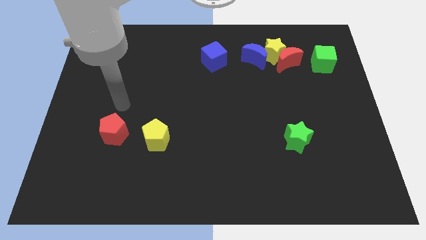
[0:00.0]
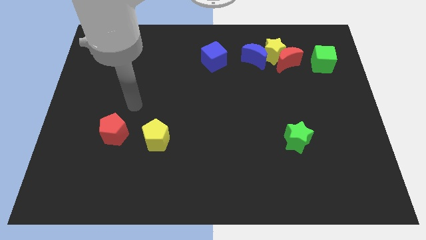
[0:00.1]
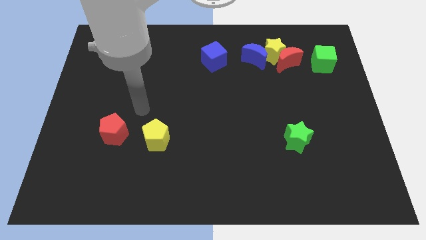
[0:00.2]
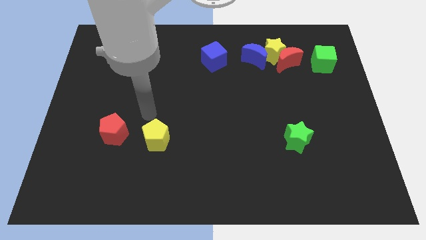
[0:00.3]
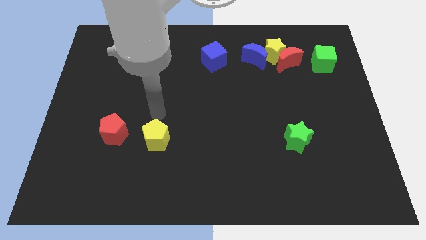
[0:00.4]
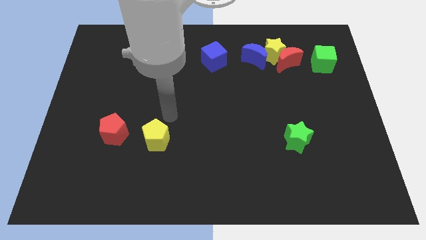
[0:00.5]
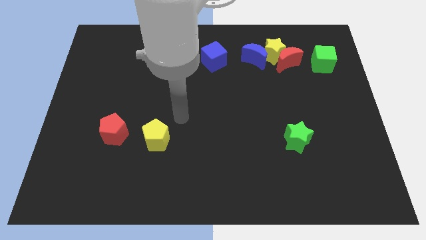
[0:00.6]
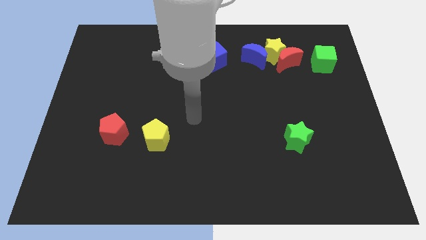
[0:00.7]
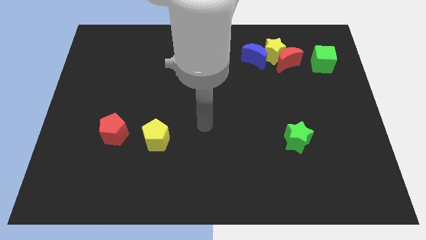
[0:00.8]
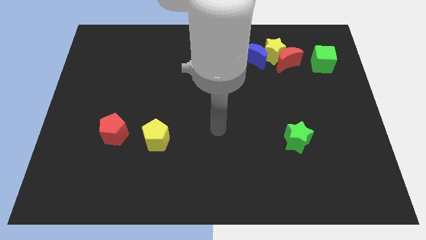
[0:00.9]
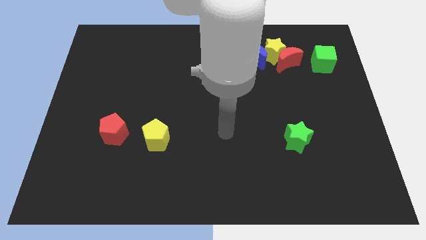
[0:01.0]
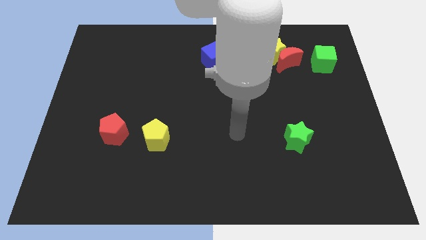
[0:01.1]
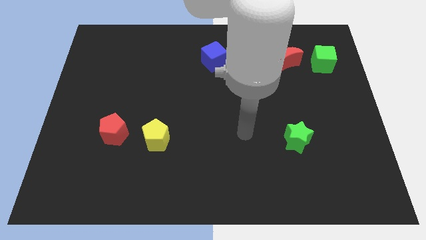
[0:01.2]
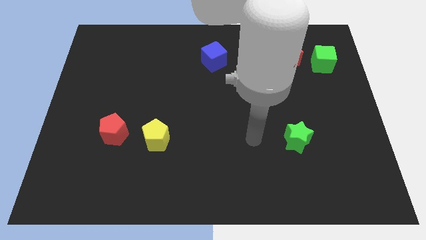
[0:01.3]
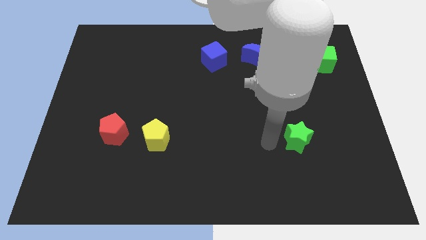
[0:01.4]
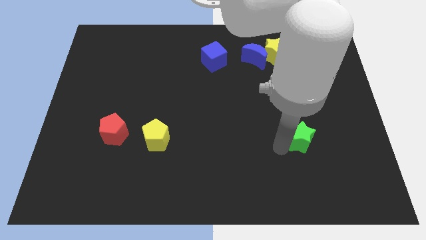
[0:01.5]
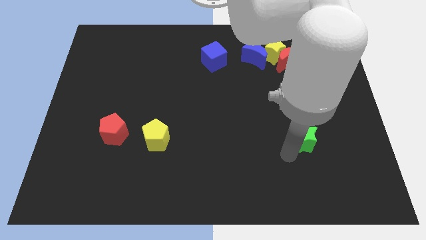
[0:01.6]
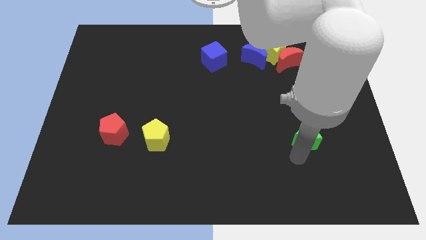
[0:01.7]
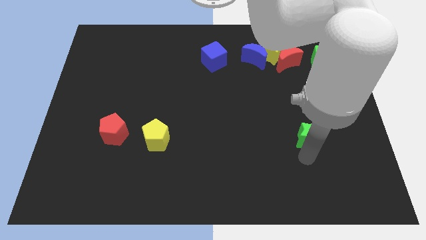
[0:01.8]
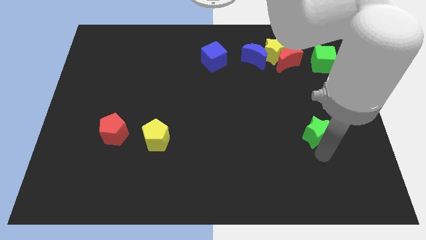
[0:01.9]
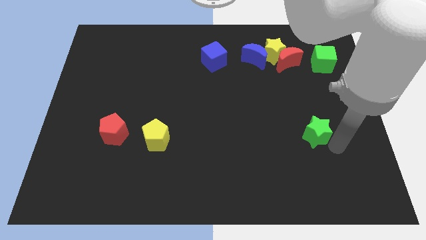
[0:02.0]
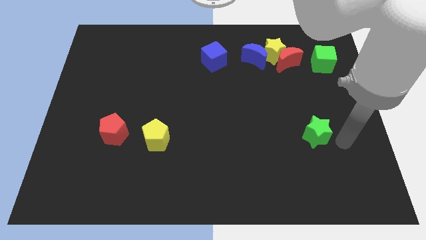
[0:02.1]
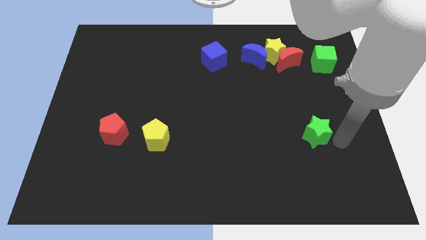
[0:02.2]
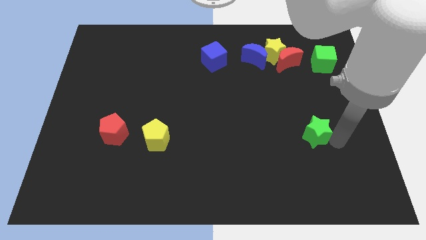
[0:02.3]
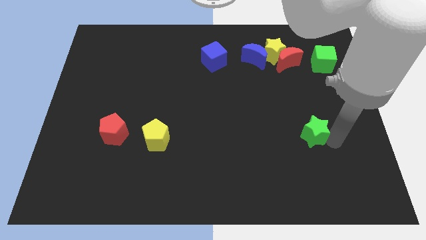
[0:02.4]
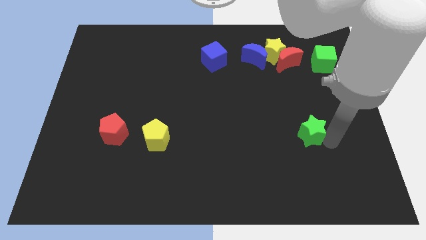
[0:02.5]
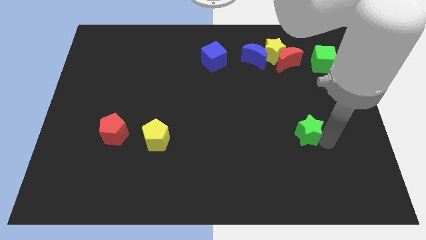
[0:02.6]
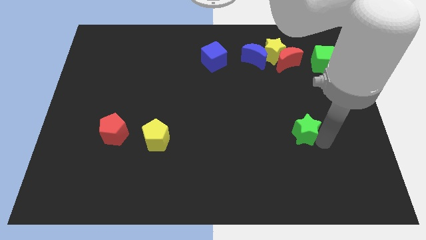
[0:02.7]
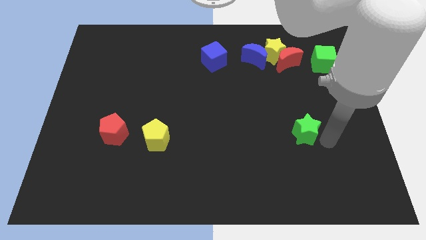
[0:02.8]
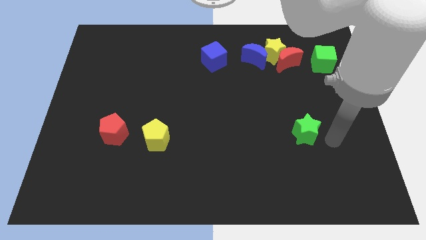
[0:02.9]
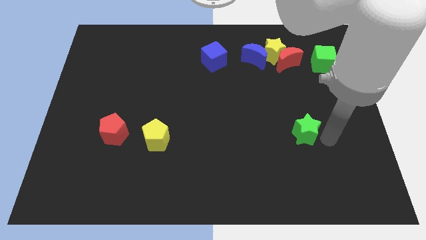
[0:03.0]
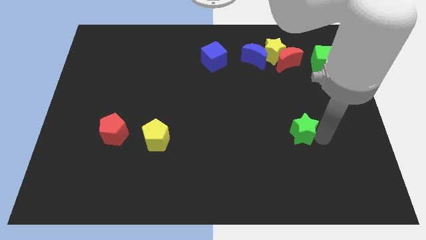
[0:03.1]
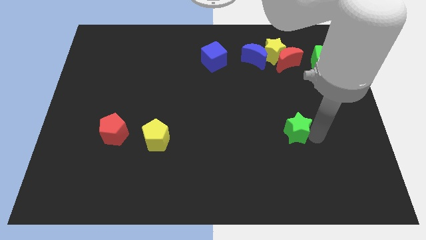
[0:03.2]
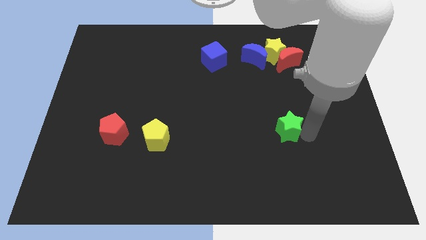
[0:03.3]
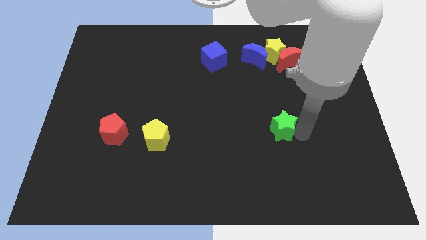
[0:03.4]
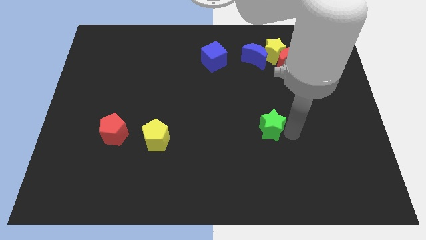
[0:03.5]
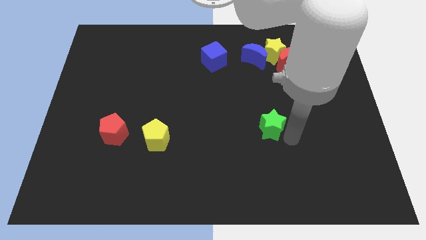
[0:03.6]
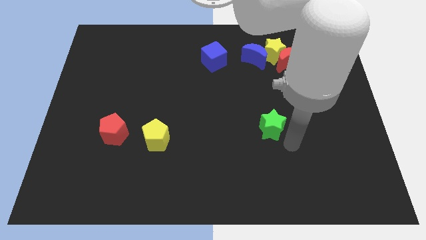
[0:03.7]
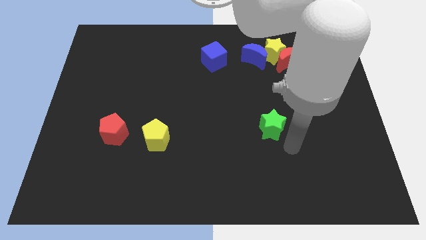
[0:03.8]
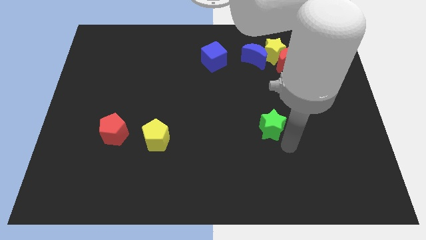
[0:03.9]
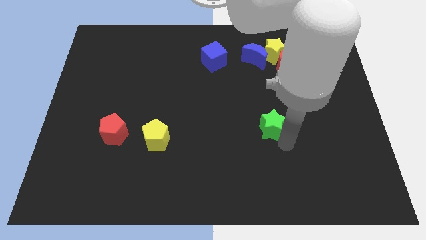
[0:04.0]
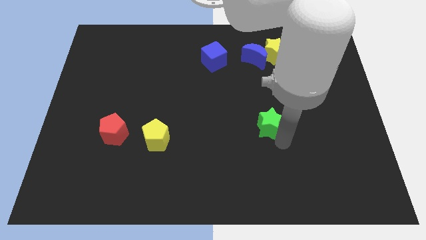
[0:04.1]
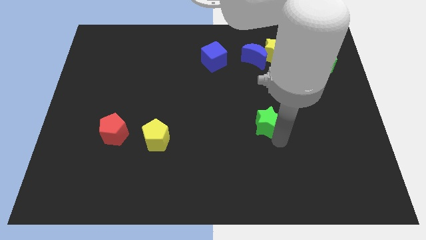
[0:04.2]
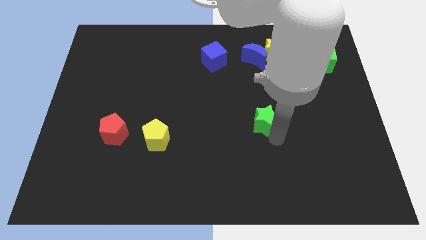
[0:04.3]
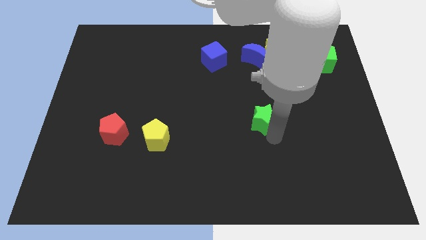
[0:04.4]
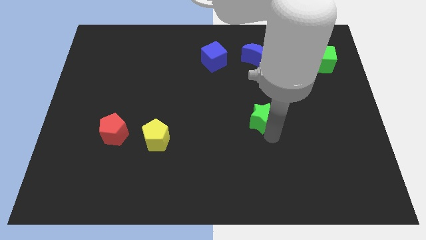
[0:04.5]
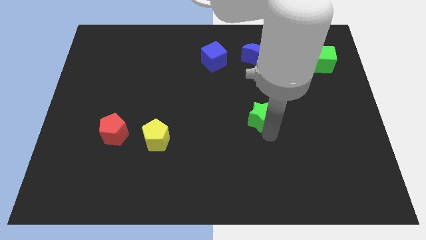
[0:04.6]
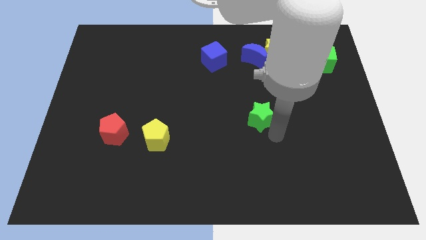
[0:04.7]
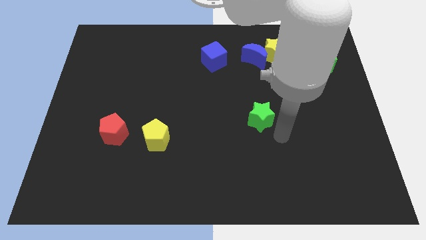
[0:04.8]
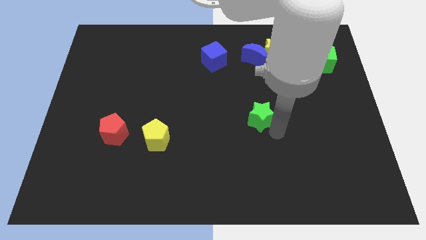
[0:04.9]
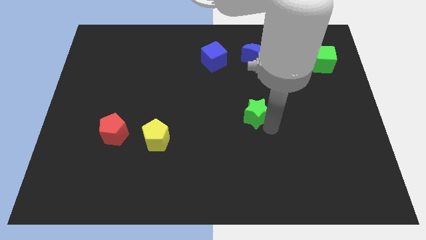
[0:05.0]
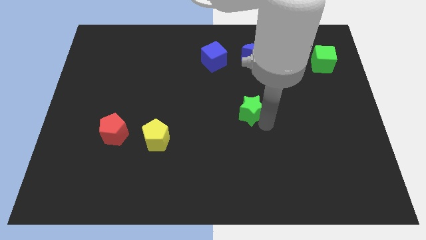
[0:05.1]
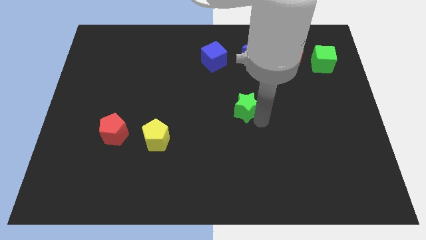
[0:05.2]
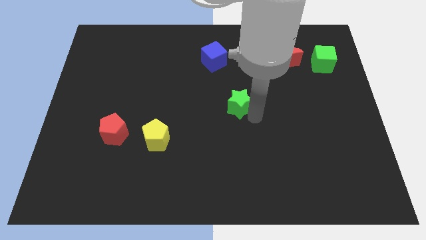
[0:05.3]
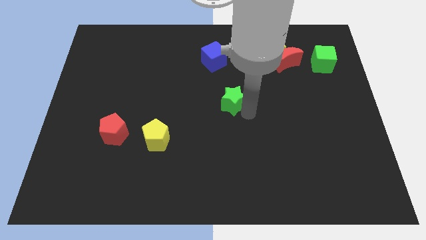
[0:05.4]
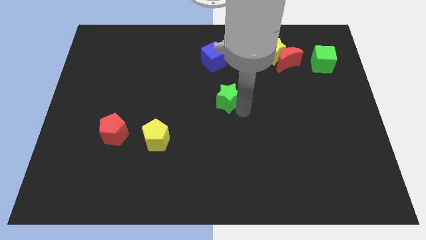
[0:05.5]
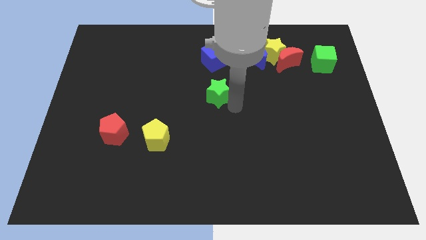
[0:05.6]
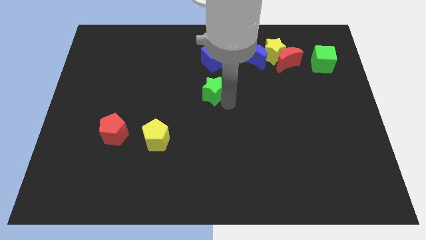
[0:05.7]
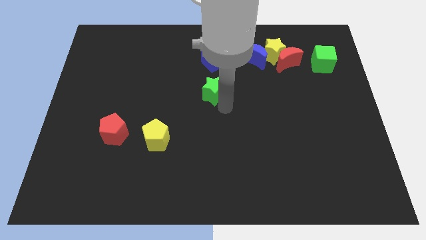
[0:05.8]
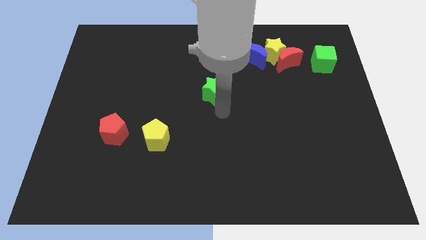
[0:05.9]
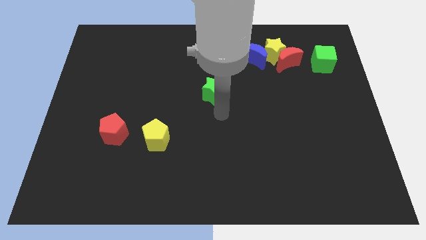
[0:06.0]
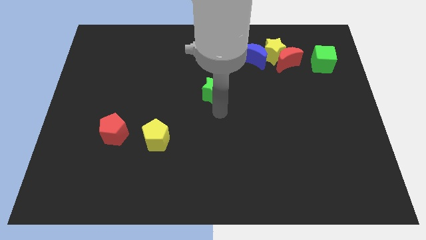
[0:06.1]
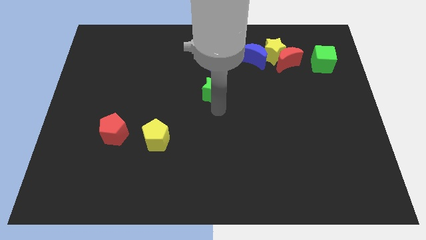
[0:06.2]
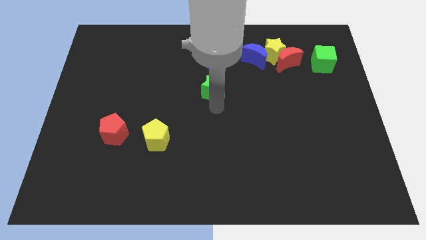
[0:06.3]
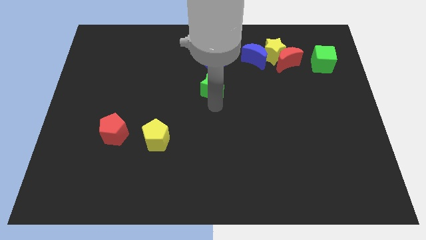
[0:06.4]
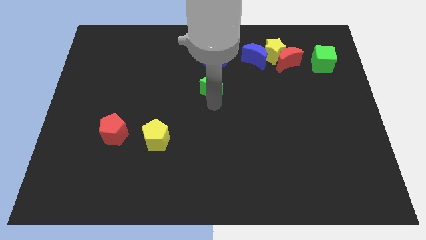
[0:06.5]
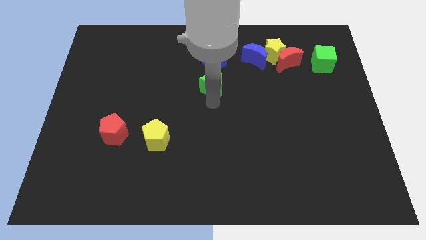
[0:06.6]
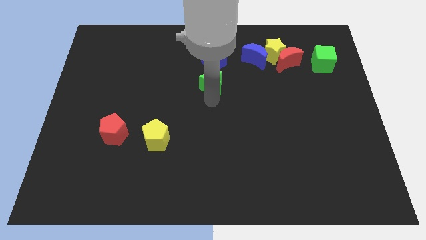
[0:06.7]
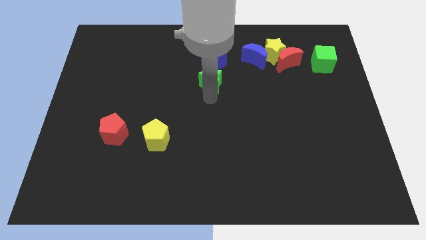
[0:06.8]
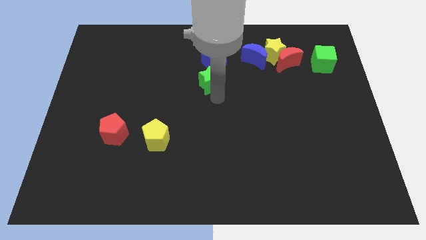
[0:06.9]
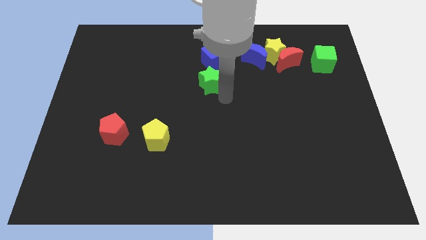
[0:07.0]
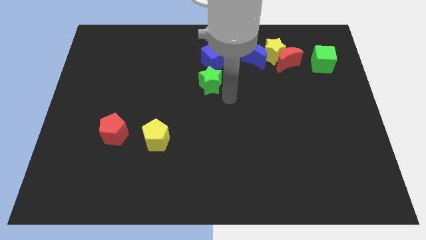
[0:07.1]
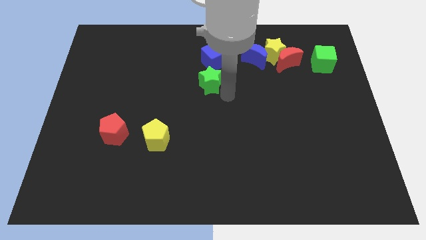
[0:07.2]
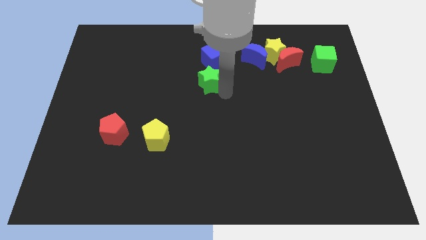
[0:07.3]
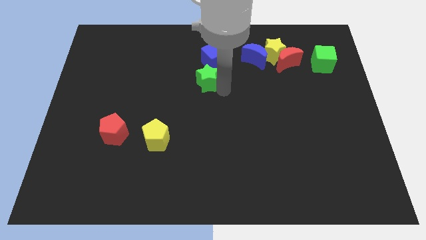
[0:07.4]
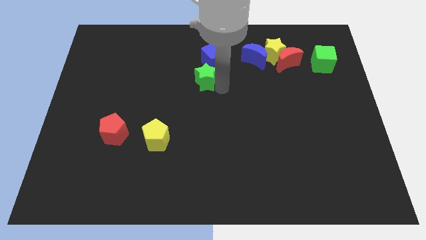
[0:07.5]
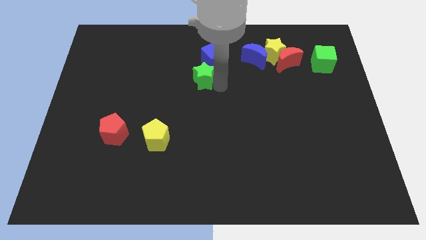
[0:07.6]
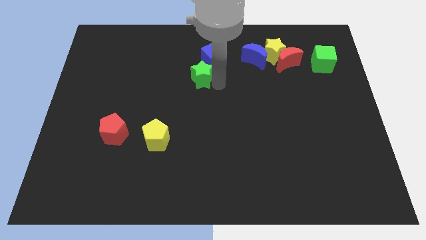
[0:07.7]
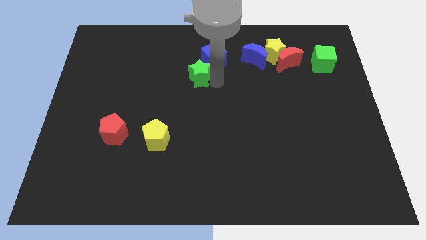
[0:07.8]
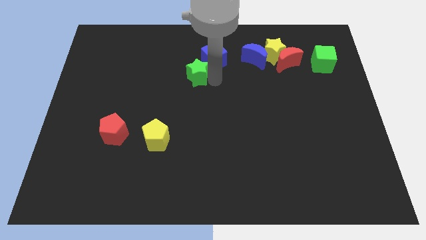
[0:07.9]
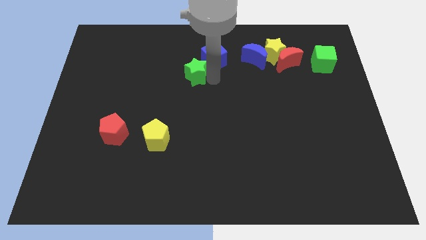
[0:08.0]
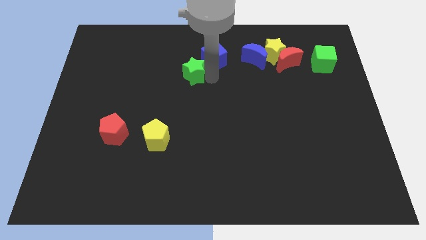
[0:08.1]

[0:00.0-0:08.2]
push the green star left of the blue cube
